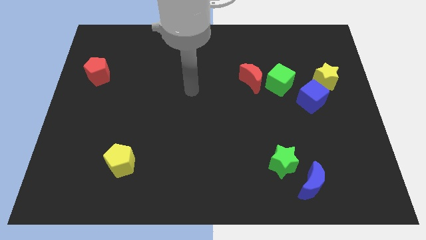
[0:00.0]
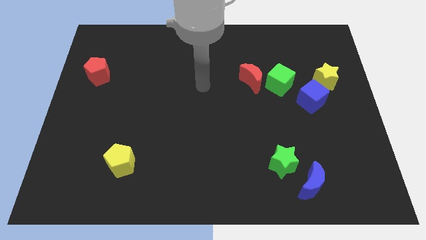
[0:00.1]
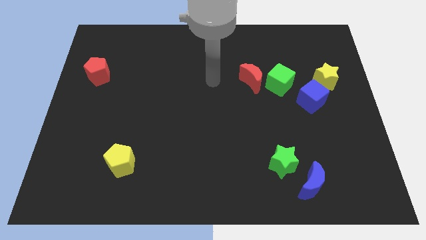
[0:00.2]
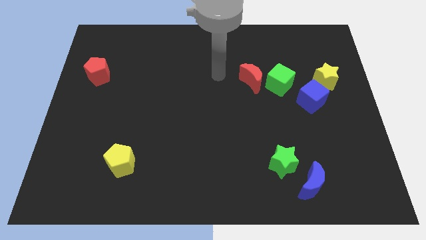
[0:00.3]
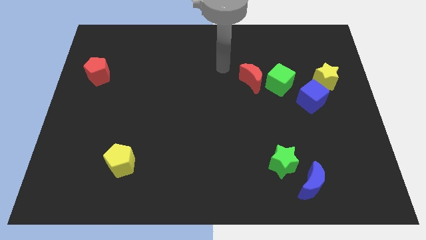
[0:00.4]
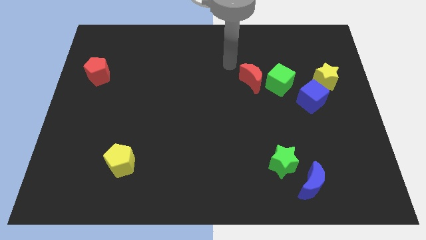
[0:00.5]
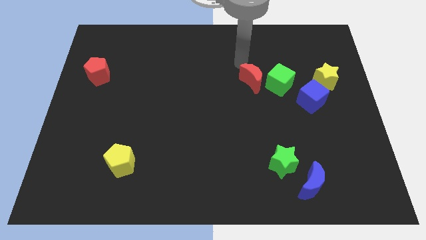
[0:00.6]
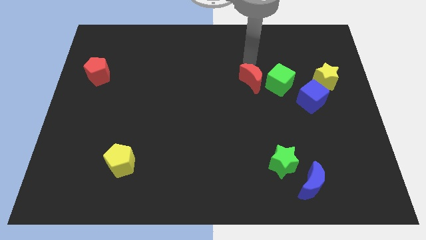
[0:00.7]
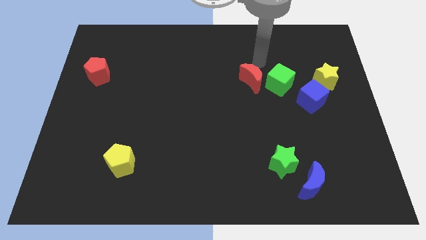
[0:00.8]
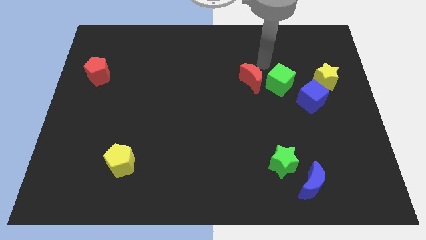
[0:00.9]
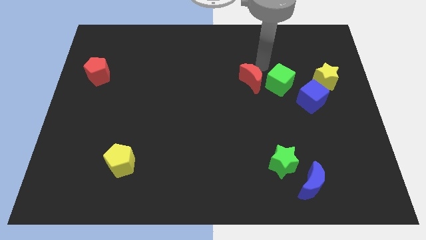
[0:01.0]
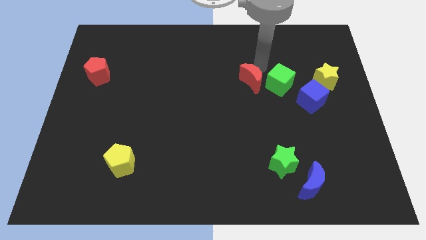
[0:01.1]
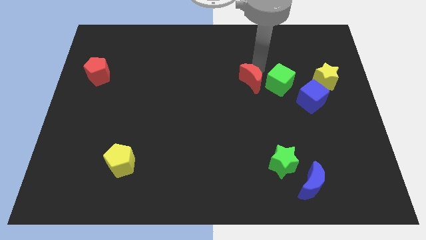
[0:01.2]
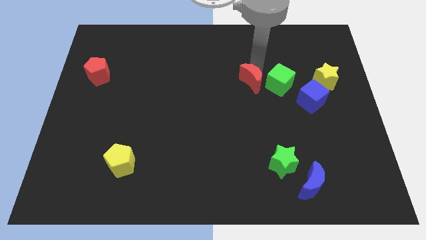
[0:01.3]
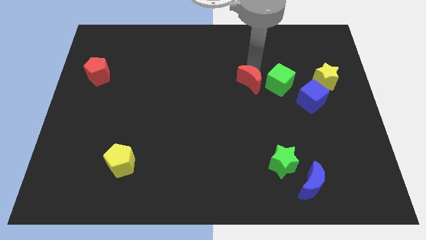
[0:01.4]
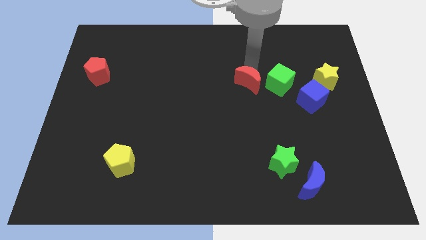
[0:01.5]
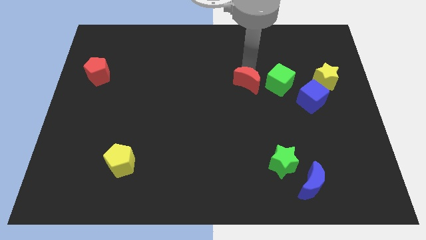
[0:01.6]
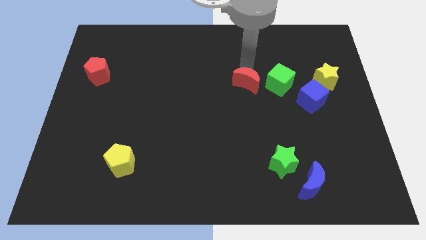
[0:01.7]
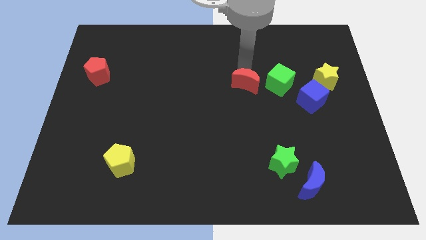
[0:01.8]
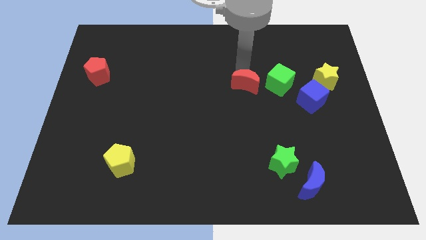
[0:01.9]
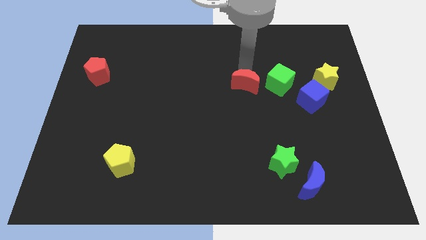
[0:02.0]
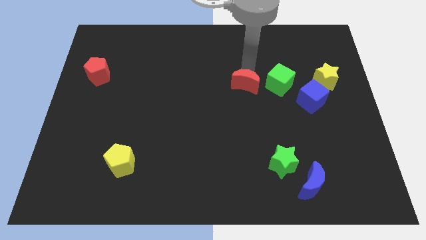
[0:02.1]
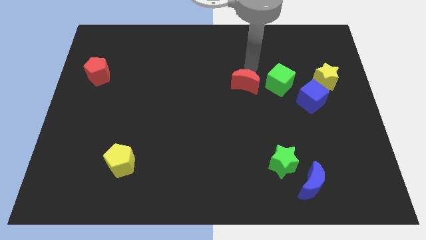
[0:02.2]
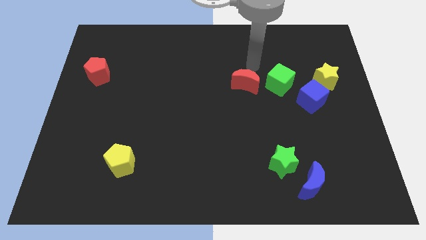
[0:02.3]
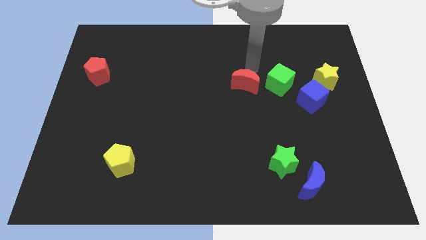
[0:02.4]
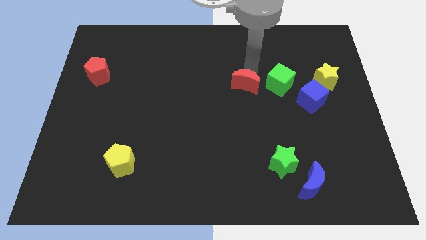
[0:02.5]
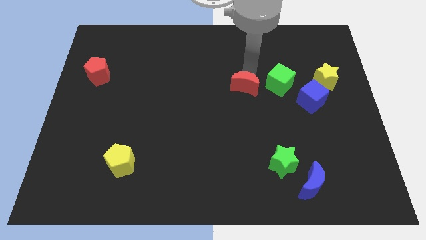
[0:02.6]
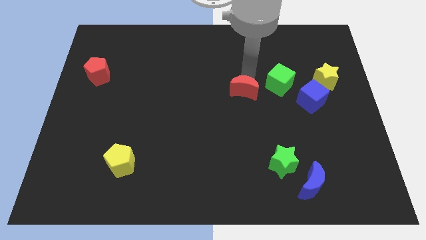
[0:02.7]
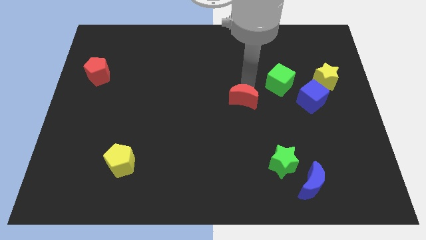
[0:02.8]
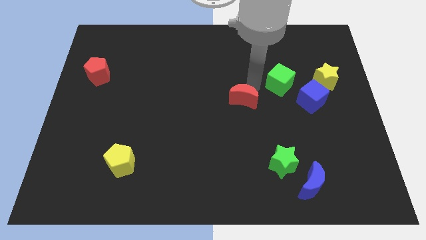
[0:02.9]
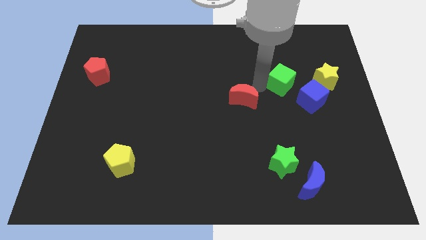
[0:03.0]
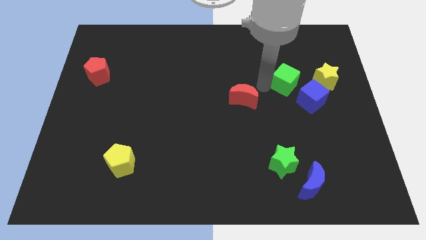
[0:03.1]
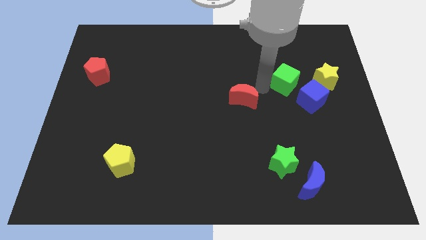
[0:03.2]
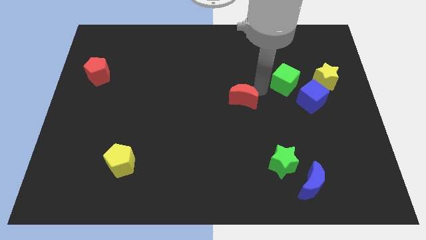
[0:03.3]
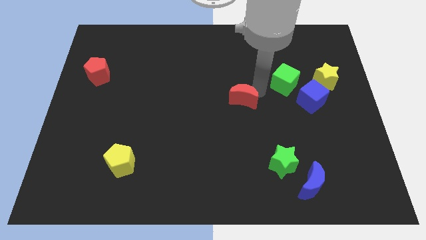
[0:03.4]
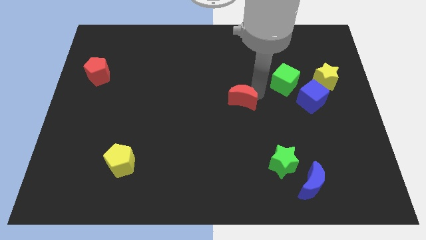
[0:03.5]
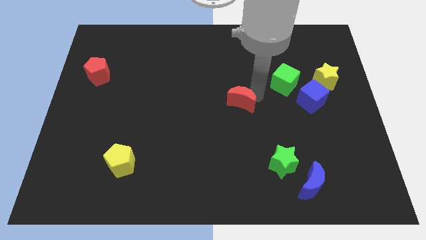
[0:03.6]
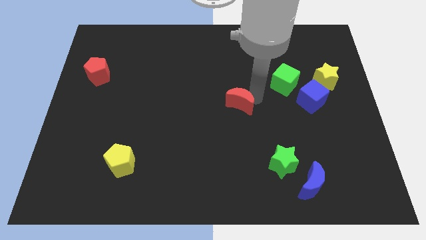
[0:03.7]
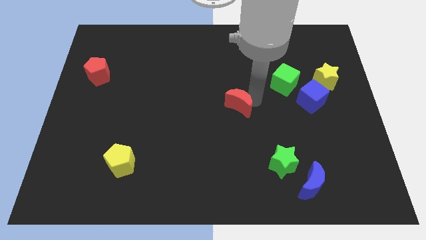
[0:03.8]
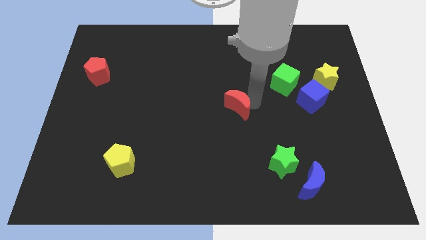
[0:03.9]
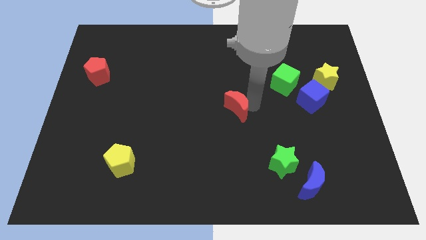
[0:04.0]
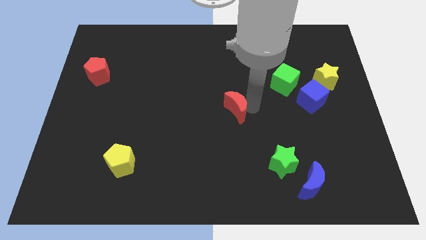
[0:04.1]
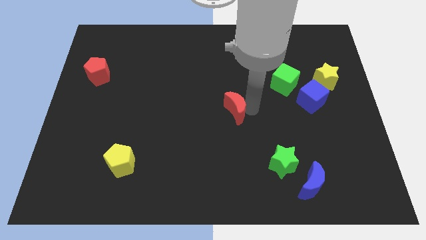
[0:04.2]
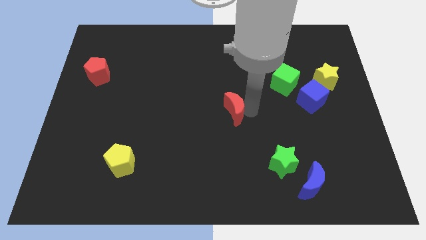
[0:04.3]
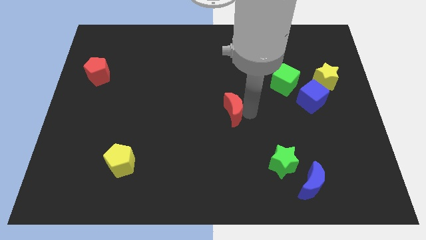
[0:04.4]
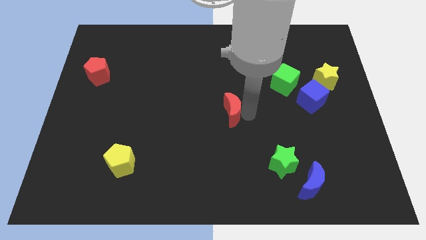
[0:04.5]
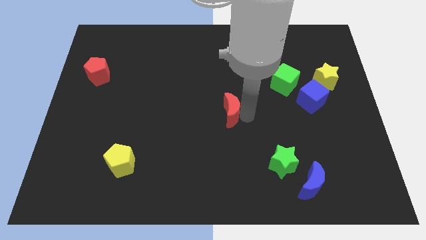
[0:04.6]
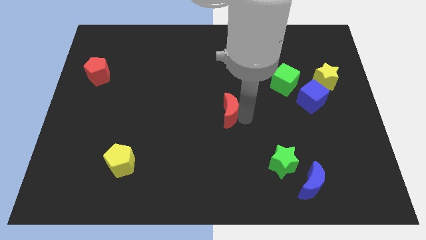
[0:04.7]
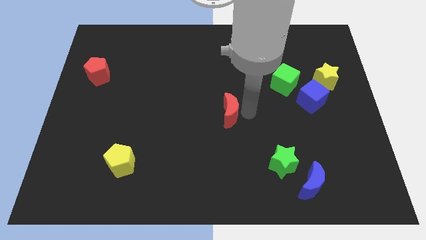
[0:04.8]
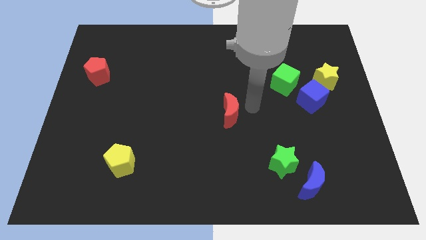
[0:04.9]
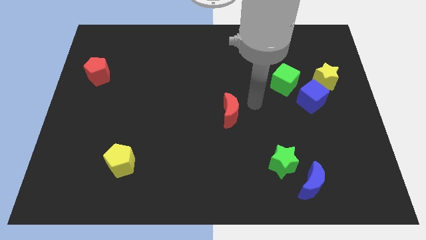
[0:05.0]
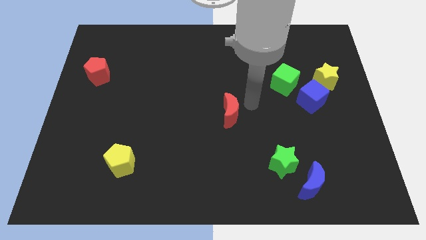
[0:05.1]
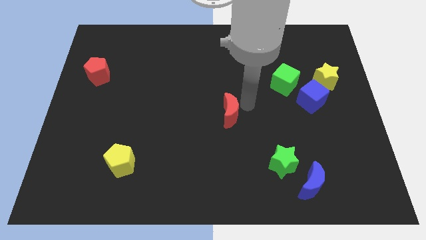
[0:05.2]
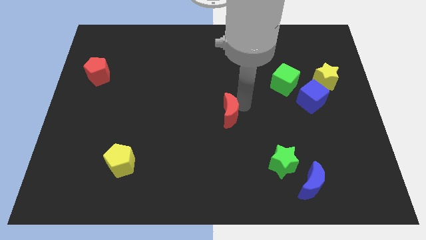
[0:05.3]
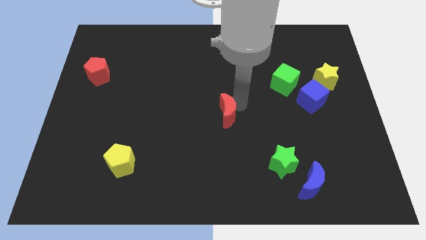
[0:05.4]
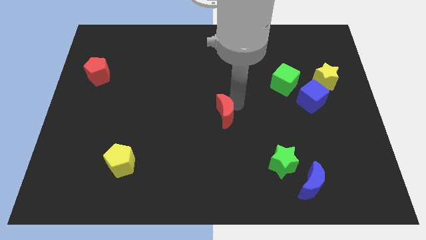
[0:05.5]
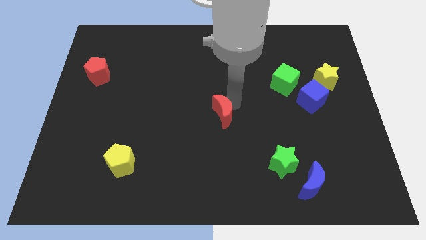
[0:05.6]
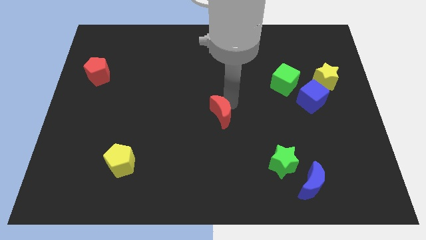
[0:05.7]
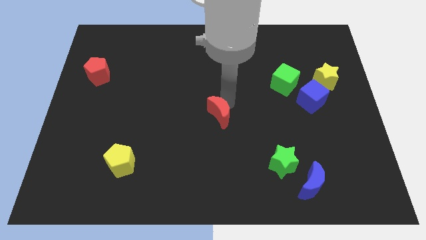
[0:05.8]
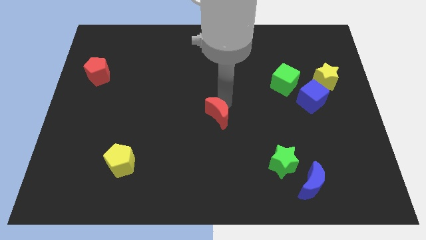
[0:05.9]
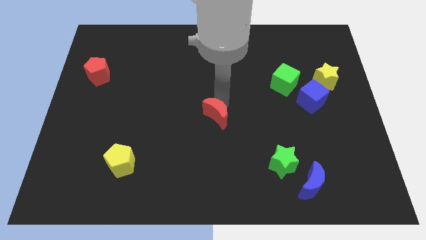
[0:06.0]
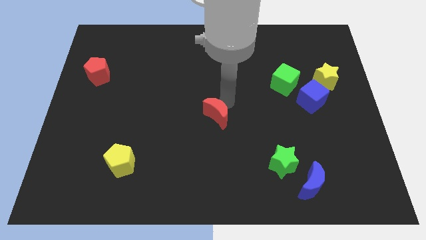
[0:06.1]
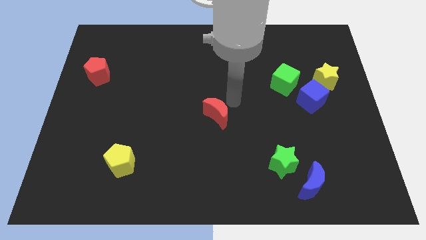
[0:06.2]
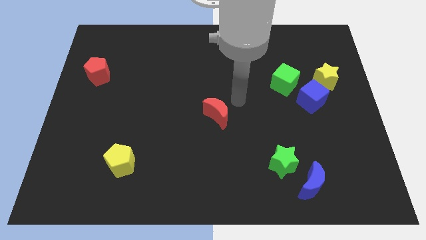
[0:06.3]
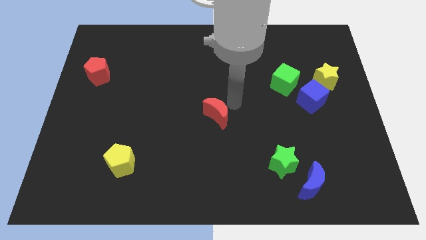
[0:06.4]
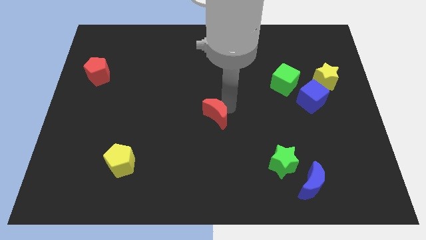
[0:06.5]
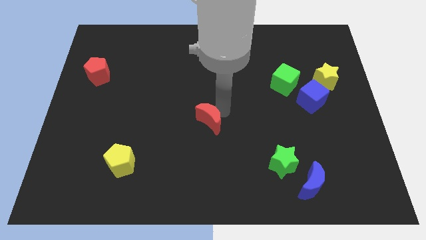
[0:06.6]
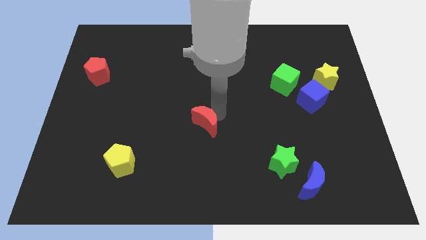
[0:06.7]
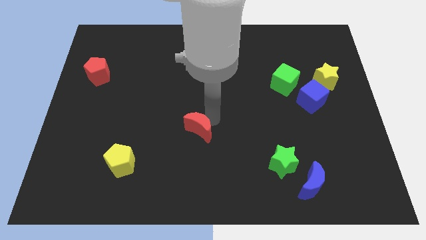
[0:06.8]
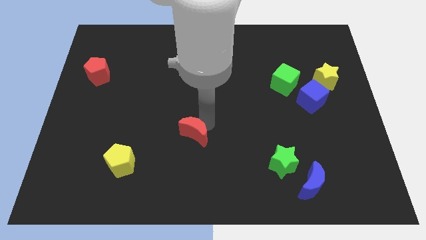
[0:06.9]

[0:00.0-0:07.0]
move the red moon diagonally downwards and left

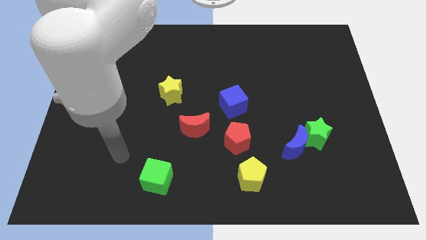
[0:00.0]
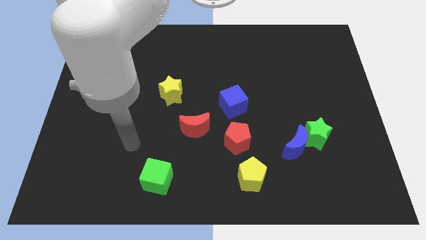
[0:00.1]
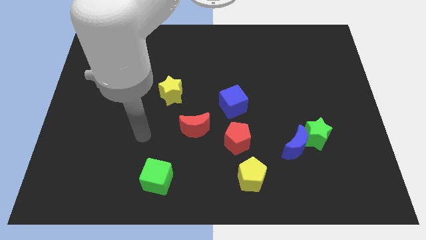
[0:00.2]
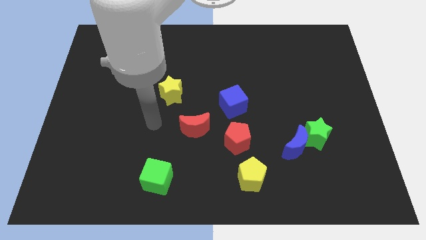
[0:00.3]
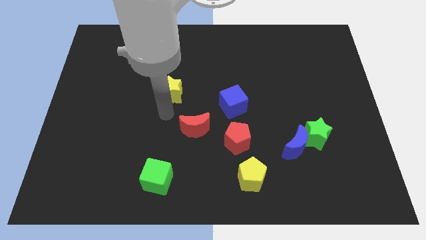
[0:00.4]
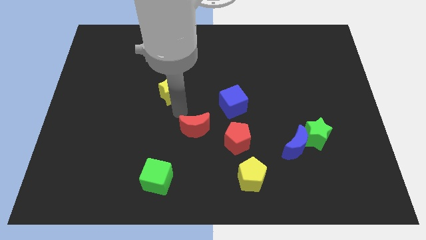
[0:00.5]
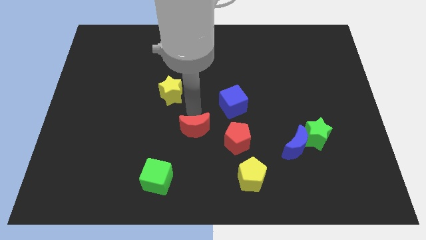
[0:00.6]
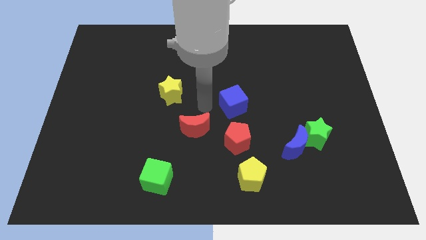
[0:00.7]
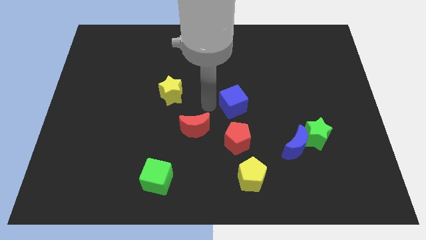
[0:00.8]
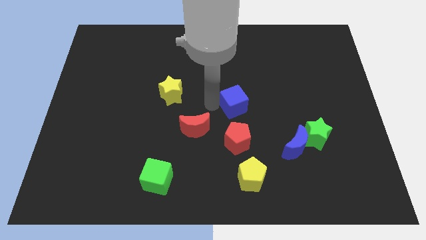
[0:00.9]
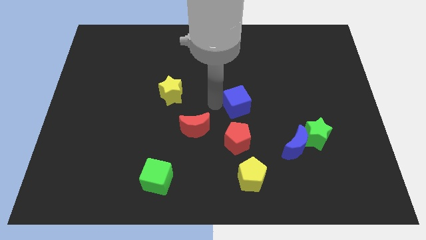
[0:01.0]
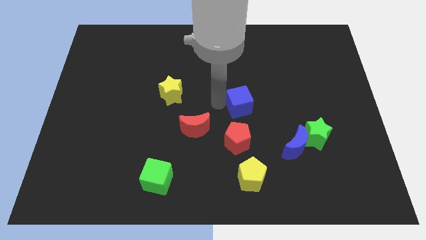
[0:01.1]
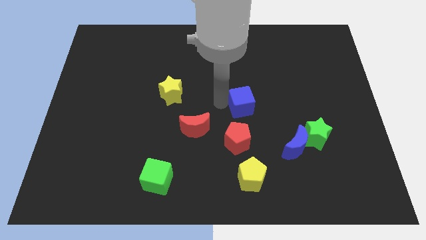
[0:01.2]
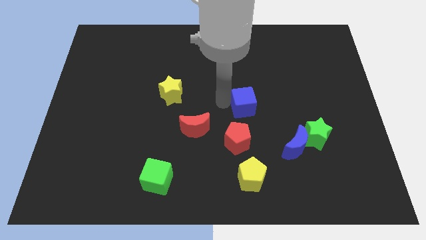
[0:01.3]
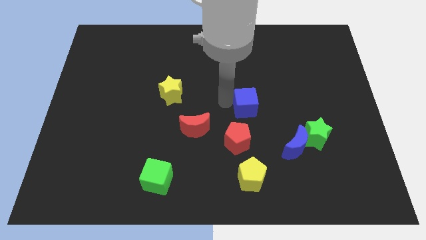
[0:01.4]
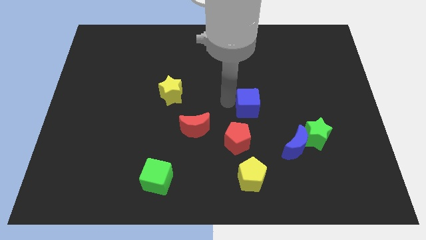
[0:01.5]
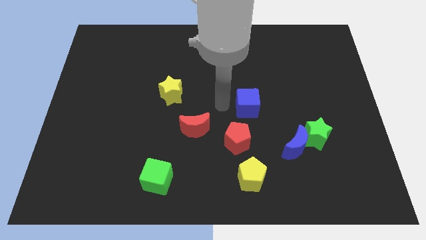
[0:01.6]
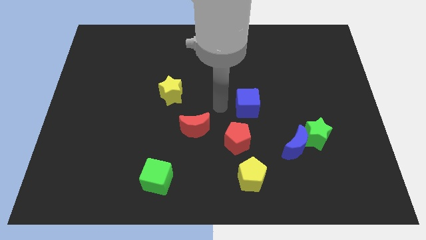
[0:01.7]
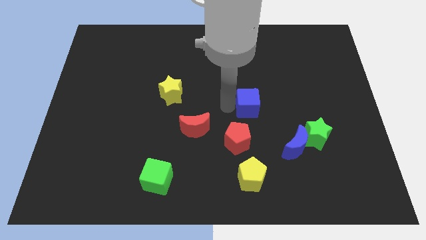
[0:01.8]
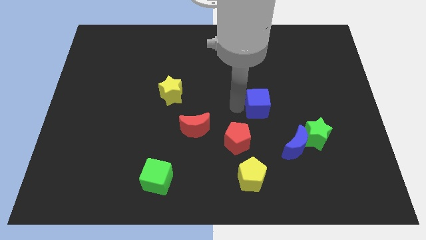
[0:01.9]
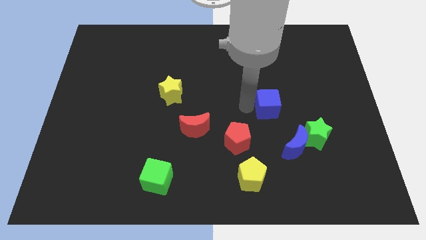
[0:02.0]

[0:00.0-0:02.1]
move the blue cube somewhat to the right
